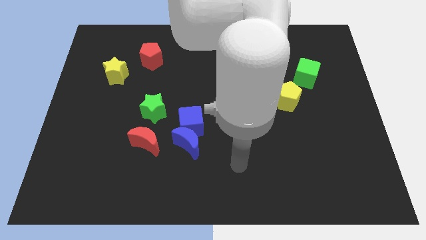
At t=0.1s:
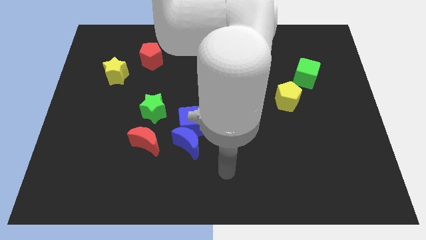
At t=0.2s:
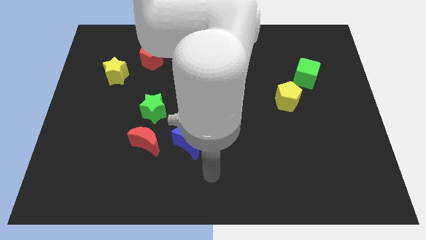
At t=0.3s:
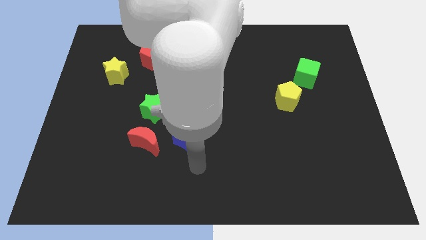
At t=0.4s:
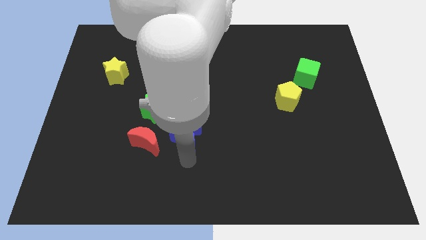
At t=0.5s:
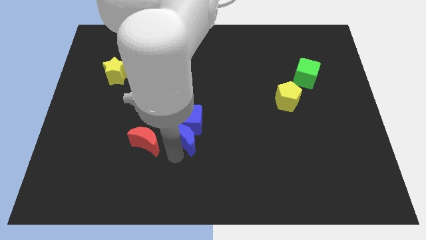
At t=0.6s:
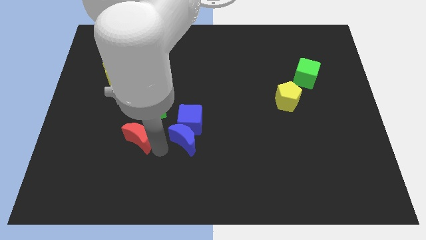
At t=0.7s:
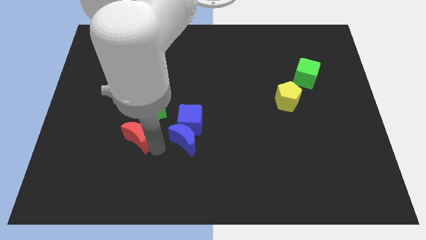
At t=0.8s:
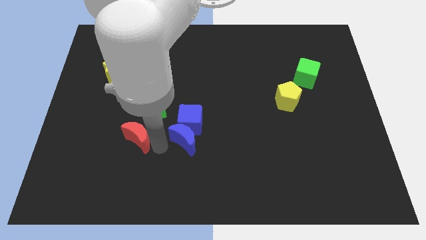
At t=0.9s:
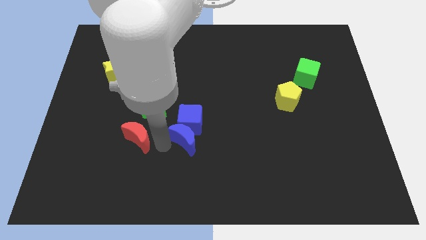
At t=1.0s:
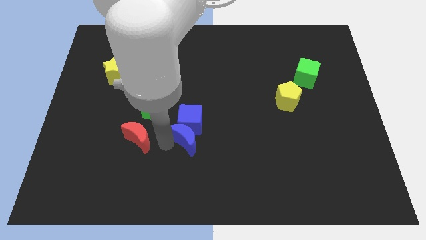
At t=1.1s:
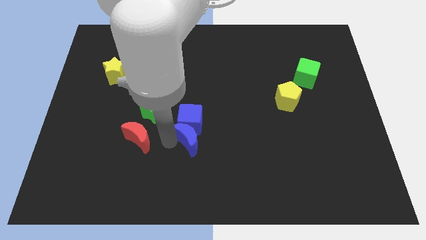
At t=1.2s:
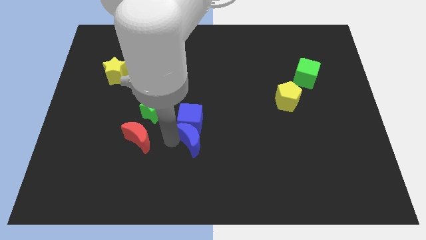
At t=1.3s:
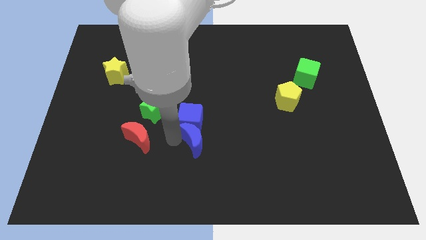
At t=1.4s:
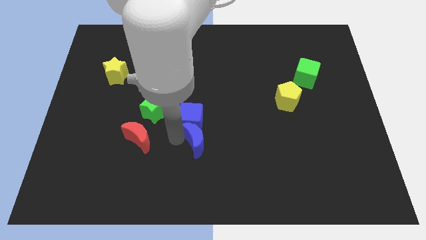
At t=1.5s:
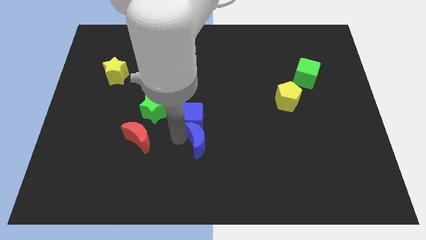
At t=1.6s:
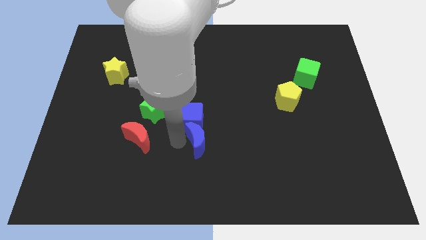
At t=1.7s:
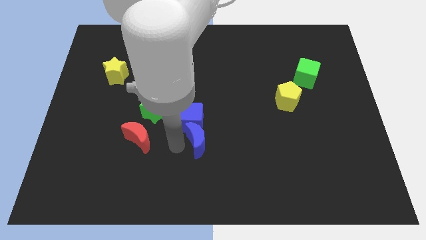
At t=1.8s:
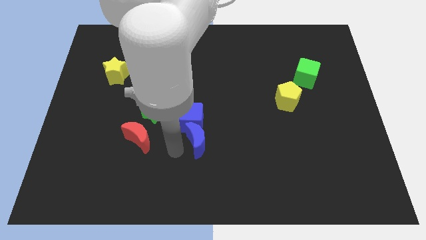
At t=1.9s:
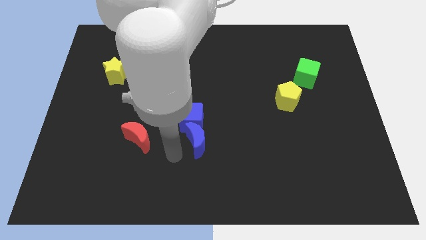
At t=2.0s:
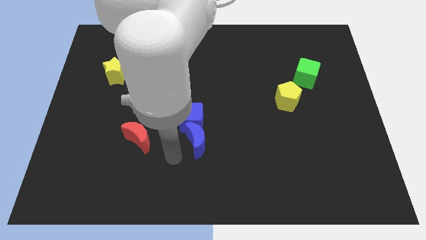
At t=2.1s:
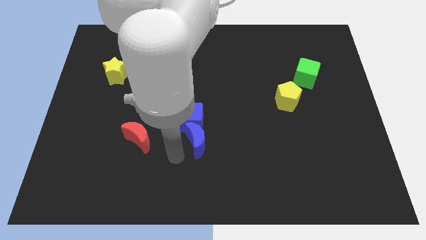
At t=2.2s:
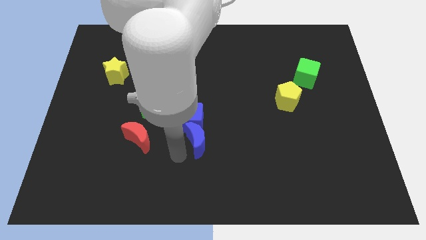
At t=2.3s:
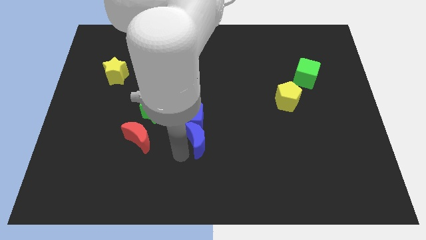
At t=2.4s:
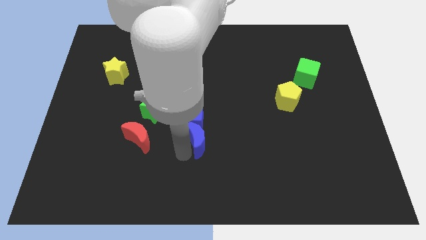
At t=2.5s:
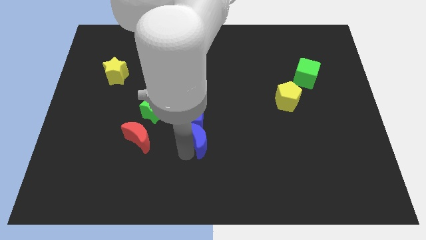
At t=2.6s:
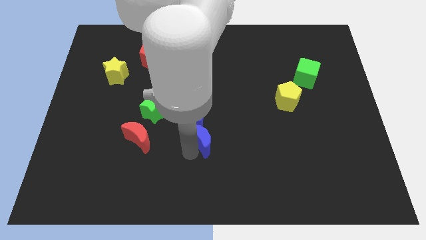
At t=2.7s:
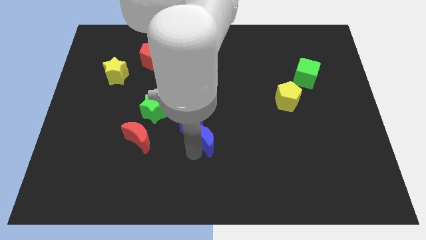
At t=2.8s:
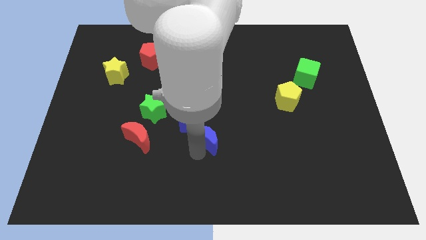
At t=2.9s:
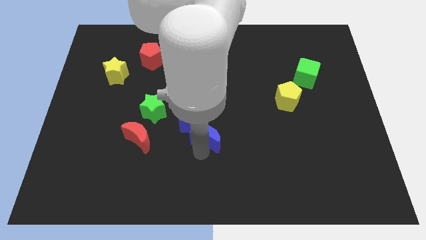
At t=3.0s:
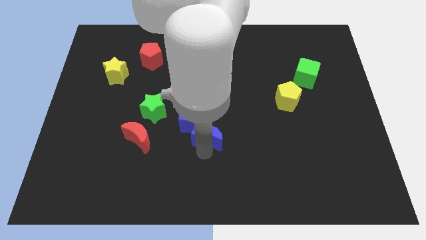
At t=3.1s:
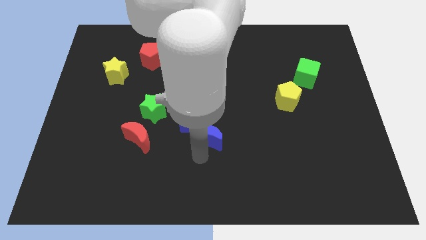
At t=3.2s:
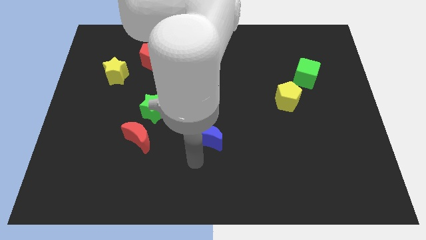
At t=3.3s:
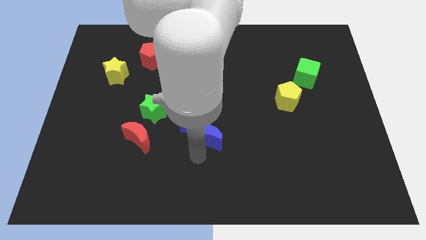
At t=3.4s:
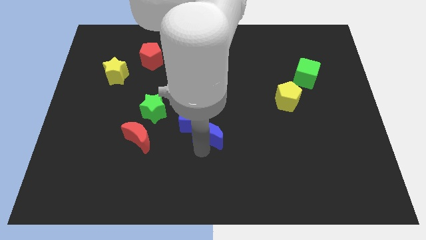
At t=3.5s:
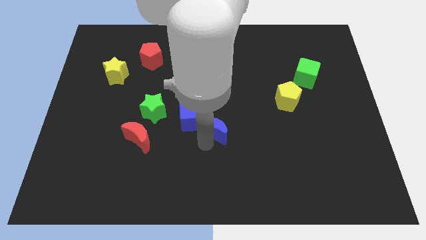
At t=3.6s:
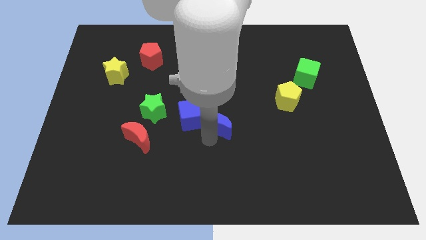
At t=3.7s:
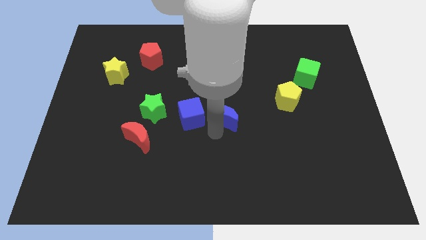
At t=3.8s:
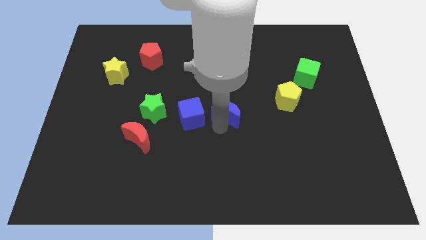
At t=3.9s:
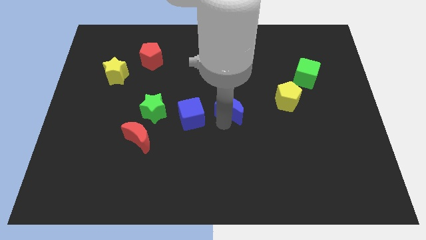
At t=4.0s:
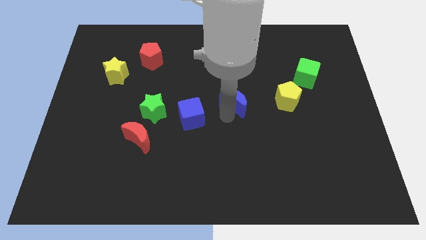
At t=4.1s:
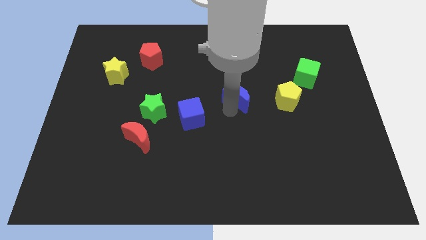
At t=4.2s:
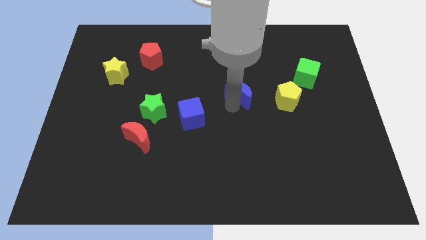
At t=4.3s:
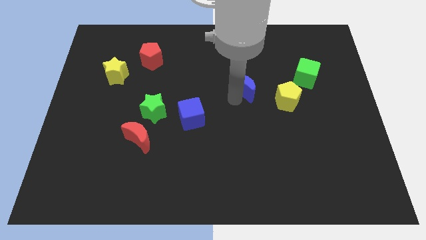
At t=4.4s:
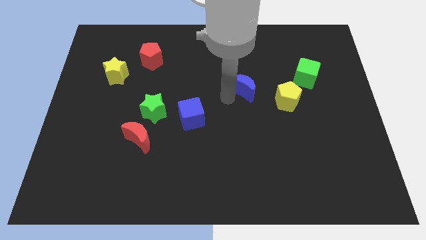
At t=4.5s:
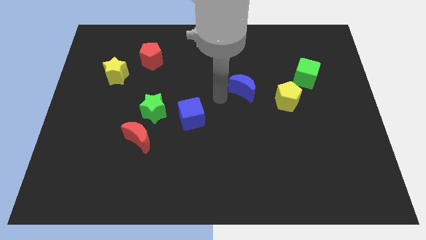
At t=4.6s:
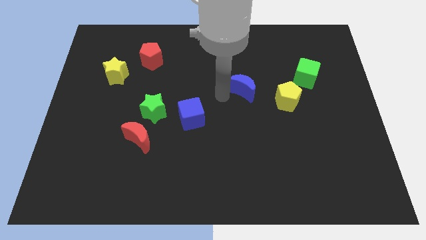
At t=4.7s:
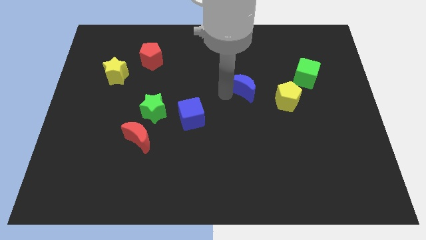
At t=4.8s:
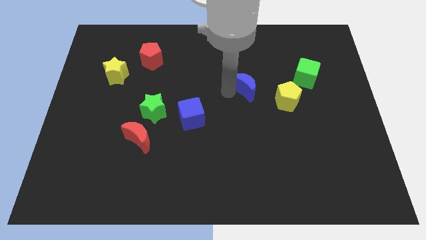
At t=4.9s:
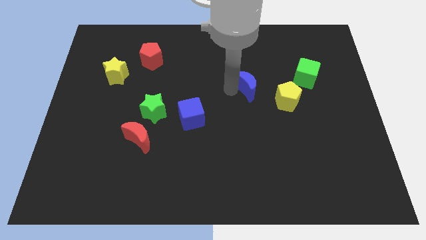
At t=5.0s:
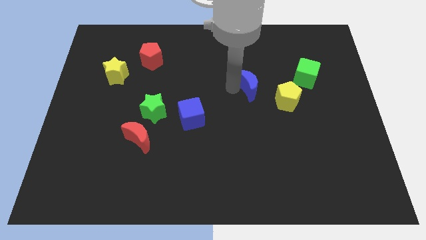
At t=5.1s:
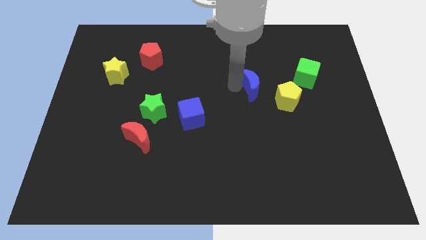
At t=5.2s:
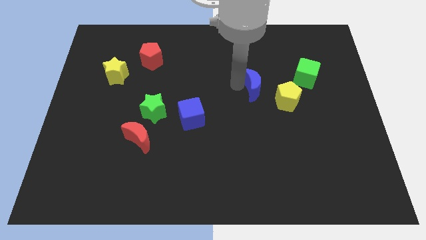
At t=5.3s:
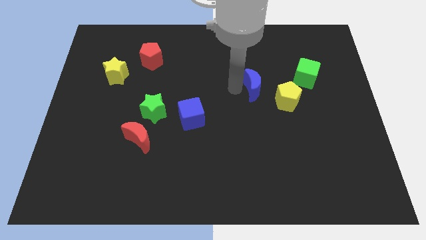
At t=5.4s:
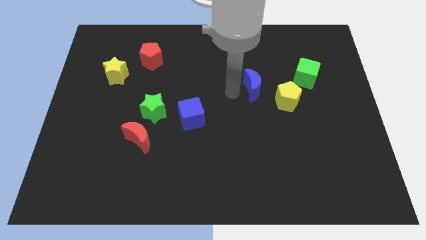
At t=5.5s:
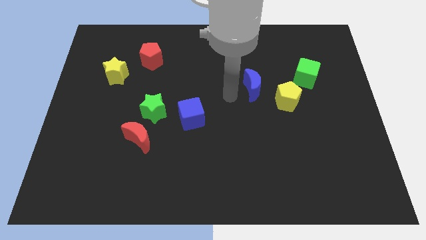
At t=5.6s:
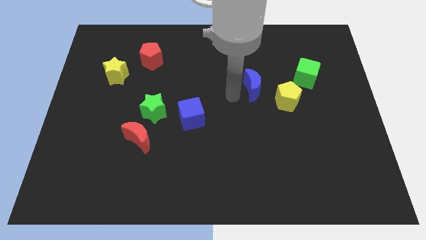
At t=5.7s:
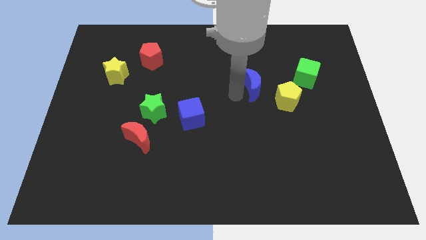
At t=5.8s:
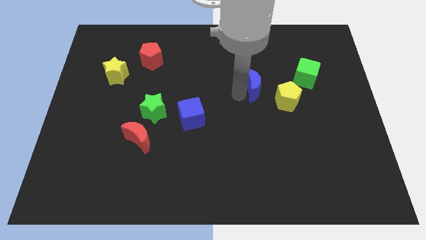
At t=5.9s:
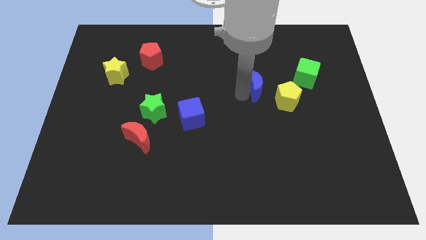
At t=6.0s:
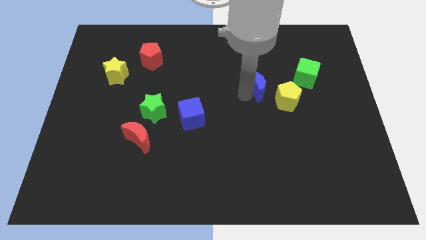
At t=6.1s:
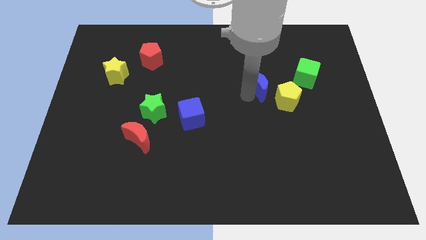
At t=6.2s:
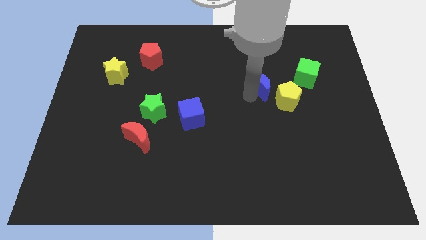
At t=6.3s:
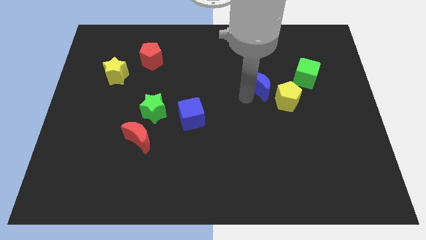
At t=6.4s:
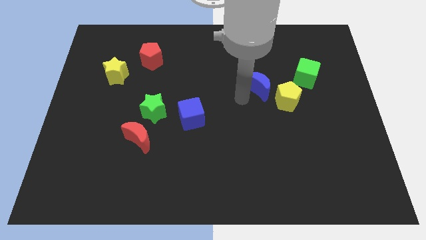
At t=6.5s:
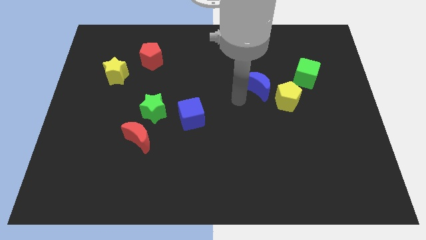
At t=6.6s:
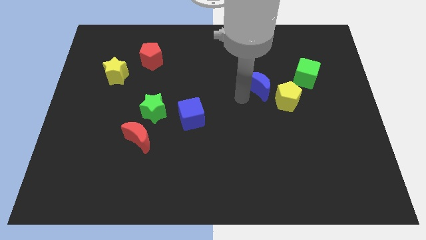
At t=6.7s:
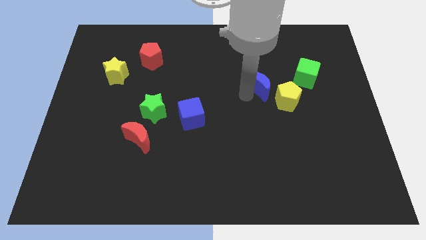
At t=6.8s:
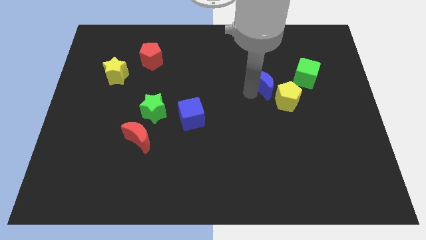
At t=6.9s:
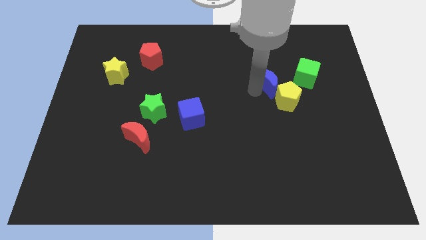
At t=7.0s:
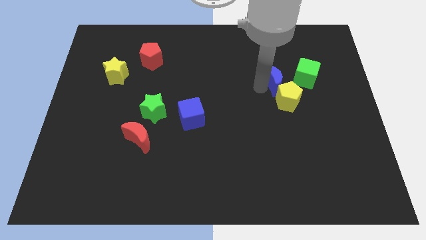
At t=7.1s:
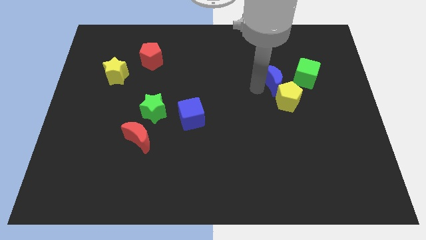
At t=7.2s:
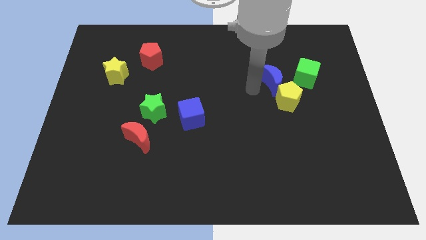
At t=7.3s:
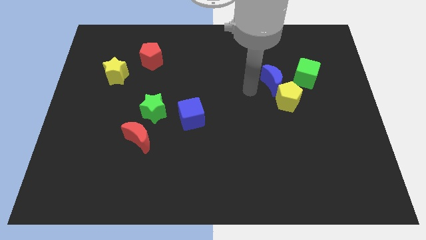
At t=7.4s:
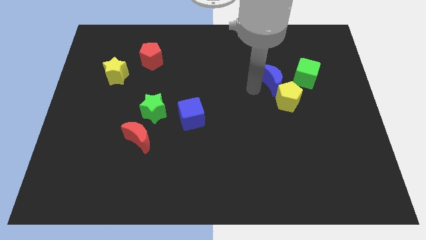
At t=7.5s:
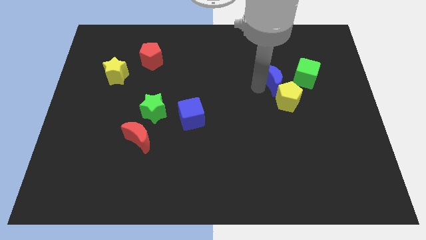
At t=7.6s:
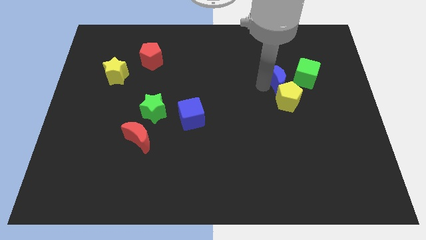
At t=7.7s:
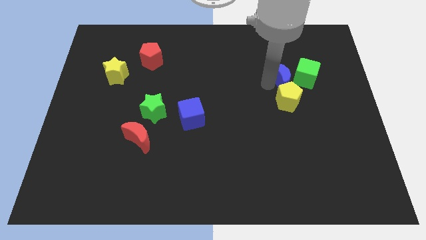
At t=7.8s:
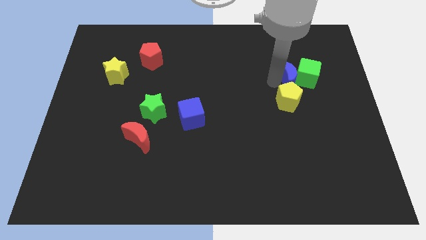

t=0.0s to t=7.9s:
move the blue moon close to the green cube
